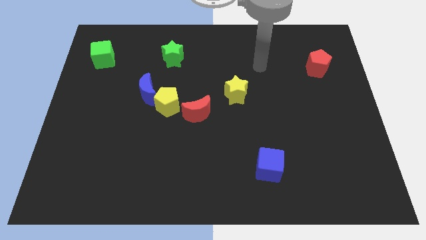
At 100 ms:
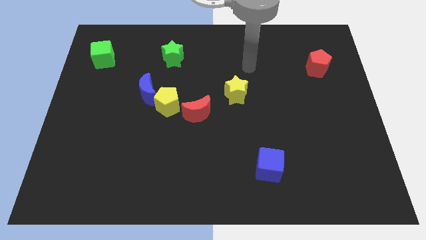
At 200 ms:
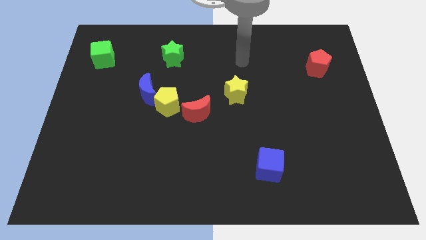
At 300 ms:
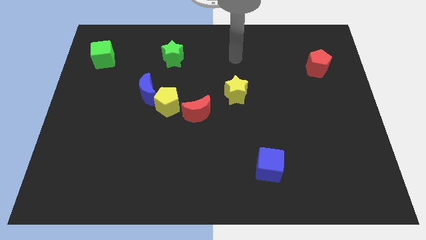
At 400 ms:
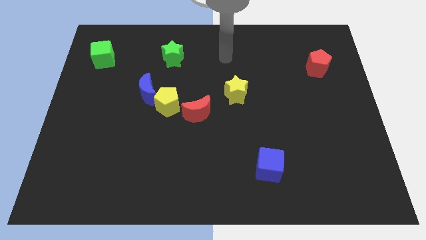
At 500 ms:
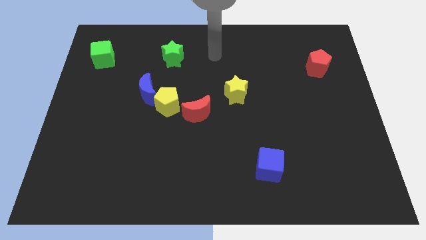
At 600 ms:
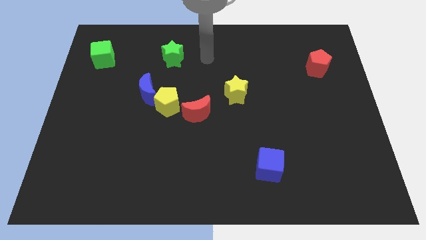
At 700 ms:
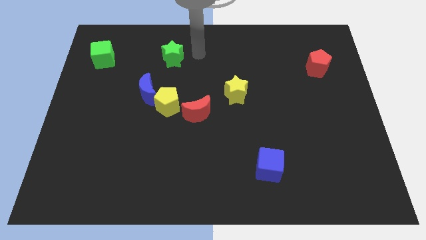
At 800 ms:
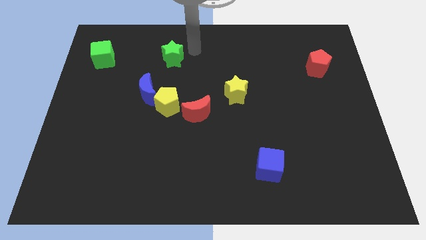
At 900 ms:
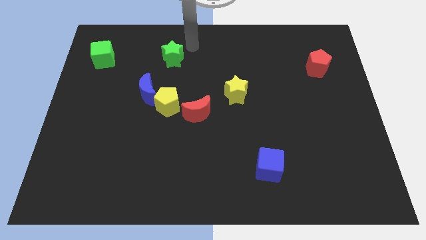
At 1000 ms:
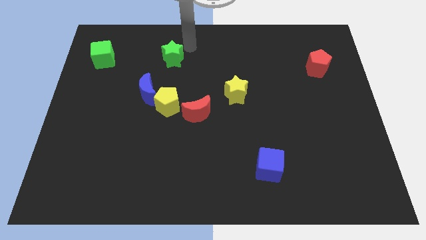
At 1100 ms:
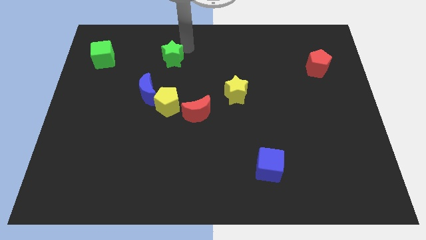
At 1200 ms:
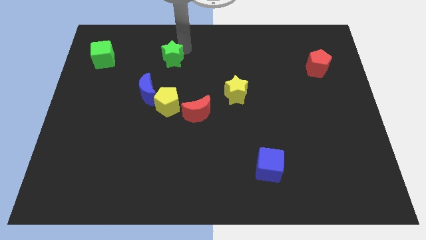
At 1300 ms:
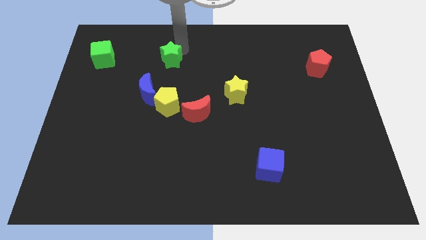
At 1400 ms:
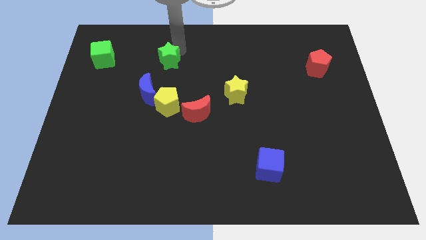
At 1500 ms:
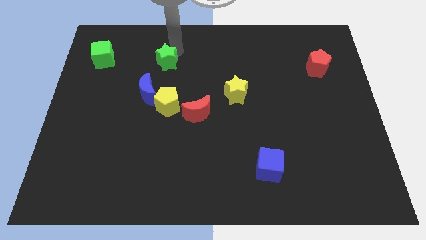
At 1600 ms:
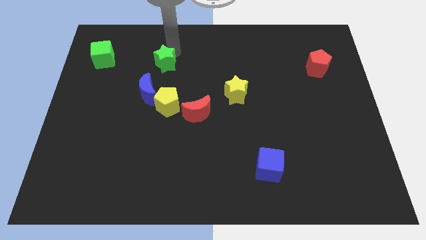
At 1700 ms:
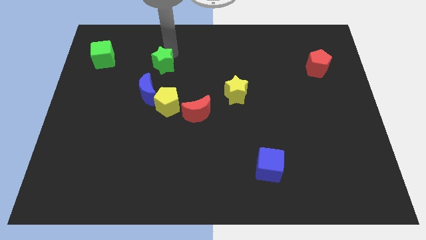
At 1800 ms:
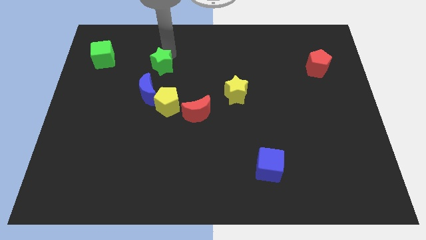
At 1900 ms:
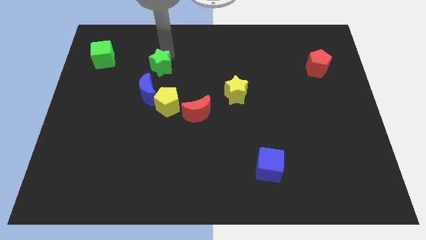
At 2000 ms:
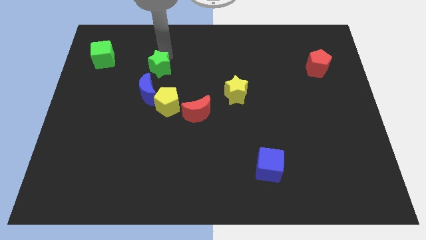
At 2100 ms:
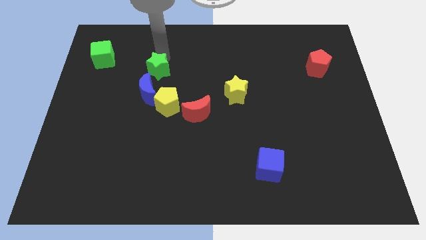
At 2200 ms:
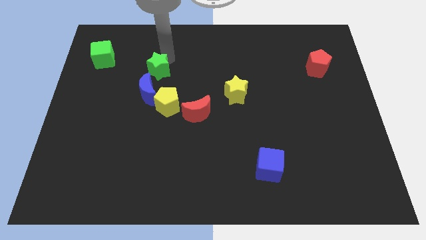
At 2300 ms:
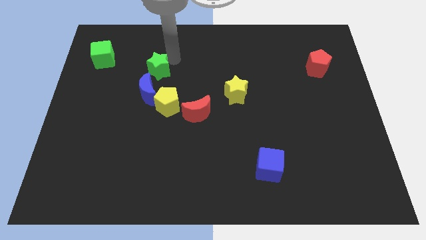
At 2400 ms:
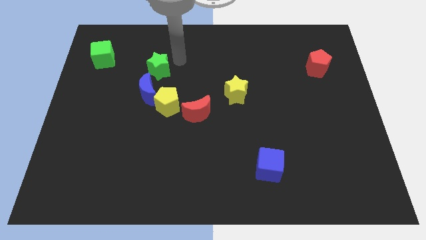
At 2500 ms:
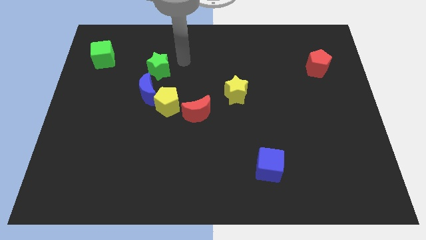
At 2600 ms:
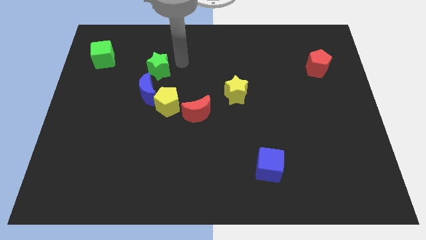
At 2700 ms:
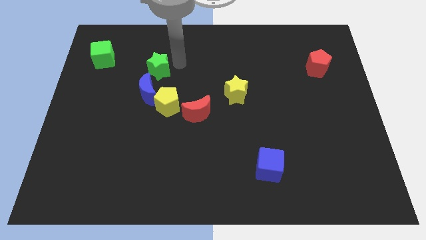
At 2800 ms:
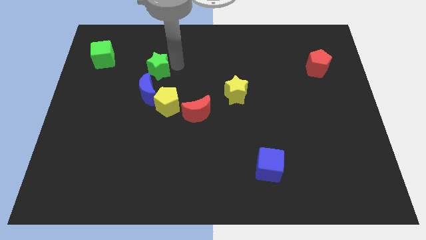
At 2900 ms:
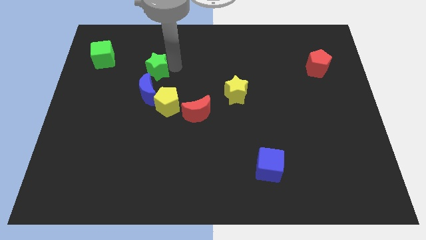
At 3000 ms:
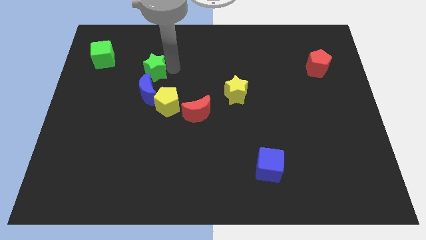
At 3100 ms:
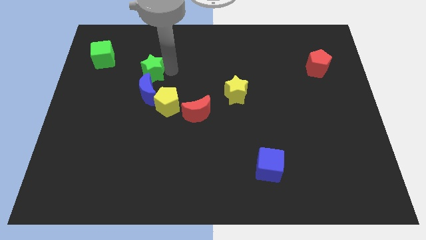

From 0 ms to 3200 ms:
push the green star slightly down and then left

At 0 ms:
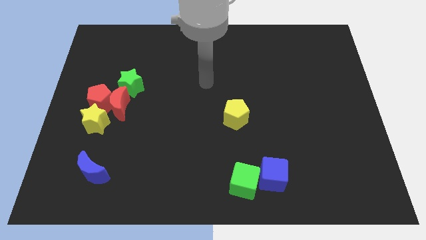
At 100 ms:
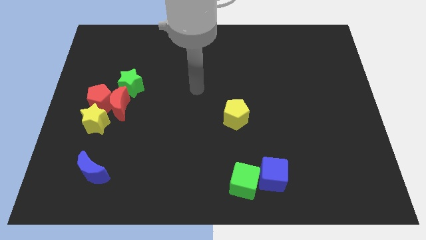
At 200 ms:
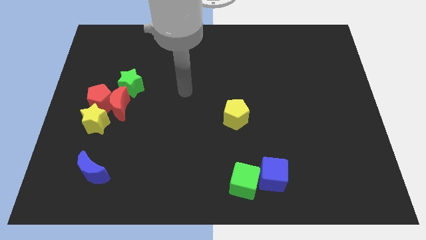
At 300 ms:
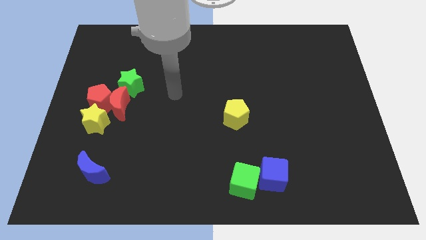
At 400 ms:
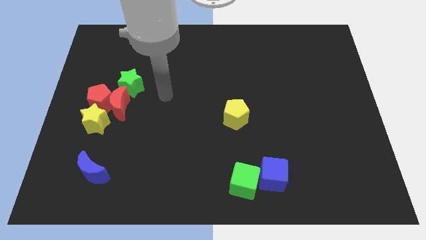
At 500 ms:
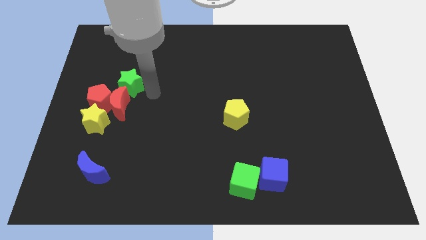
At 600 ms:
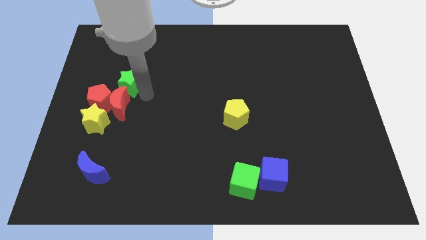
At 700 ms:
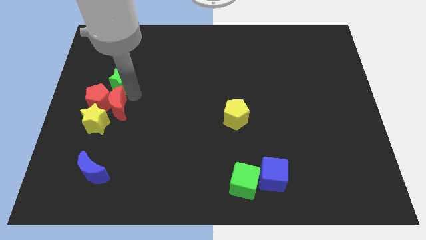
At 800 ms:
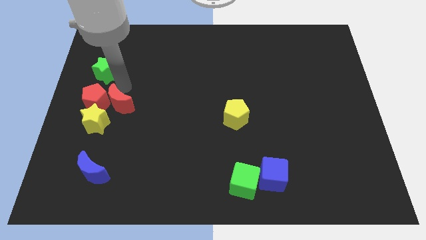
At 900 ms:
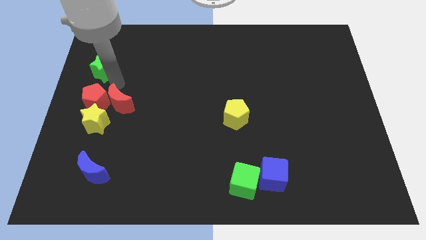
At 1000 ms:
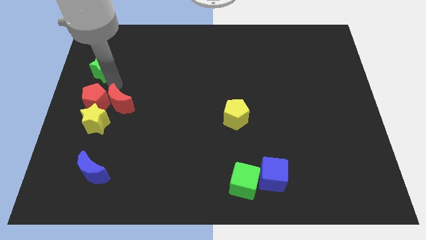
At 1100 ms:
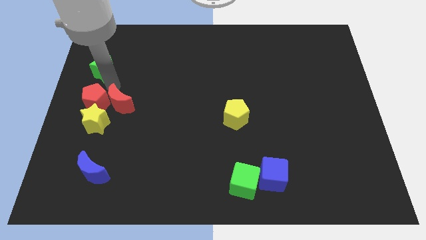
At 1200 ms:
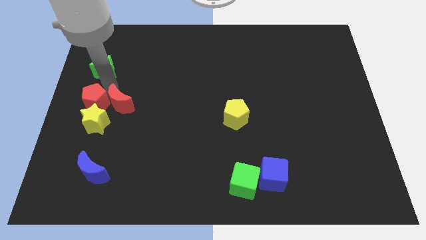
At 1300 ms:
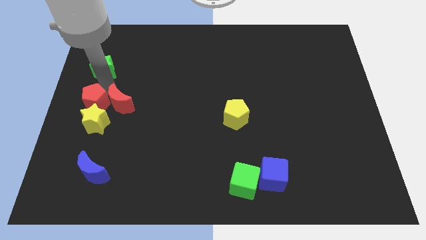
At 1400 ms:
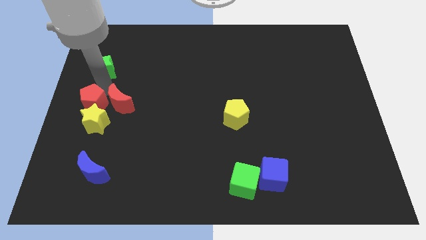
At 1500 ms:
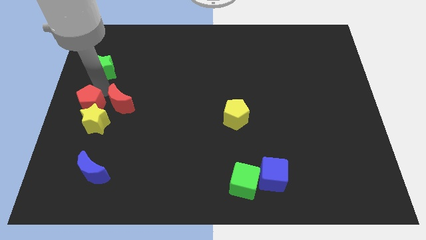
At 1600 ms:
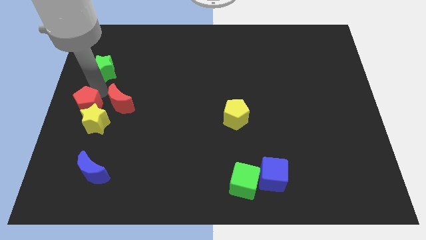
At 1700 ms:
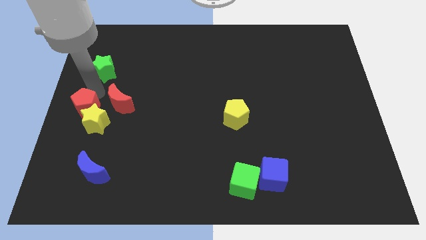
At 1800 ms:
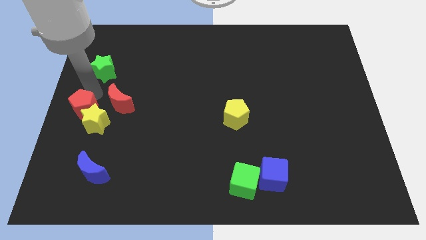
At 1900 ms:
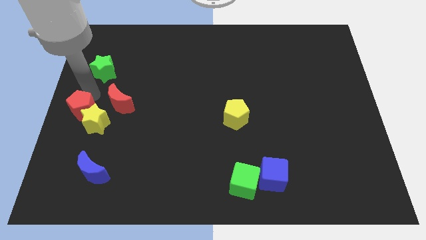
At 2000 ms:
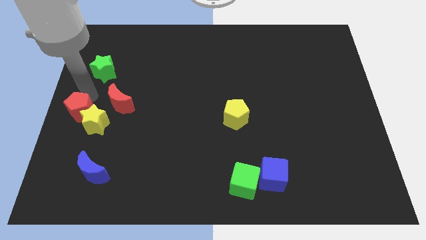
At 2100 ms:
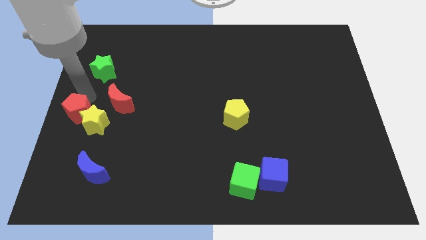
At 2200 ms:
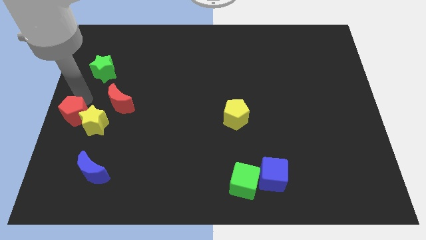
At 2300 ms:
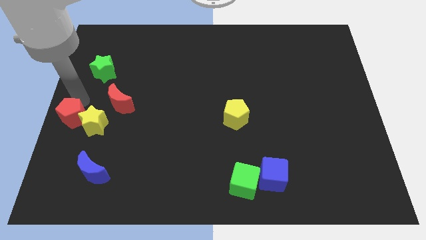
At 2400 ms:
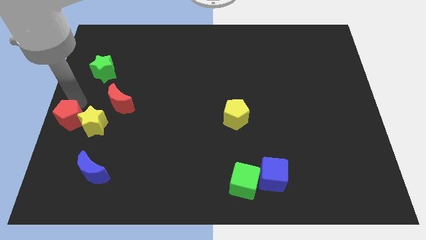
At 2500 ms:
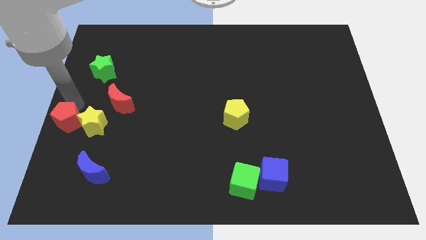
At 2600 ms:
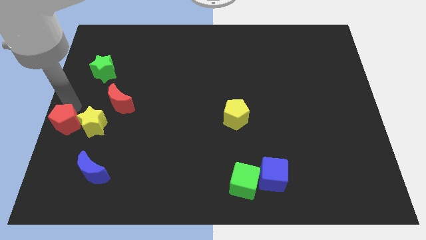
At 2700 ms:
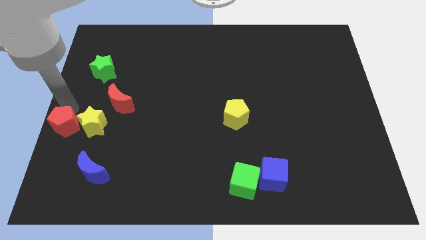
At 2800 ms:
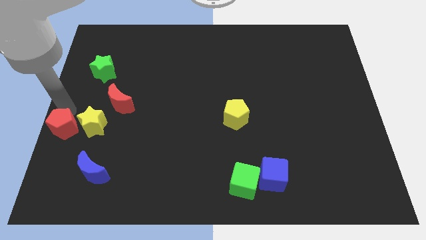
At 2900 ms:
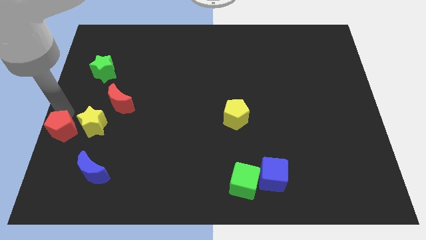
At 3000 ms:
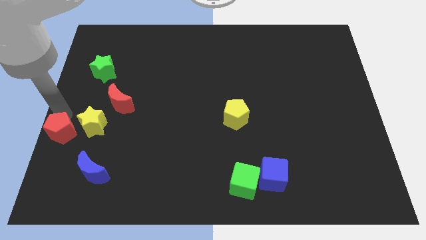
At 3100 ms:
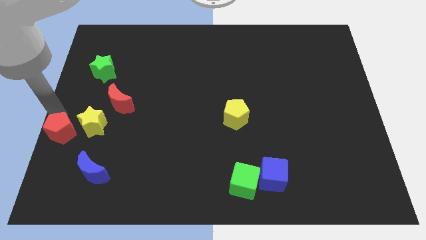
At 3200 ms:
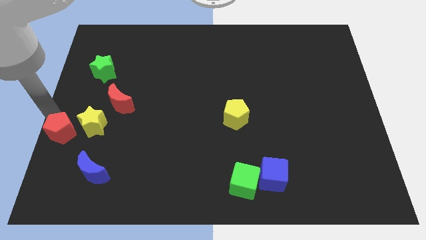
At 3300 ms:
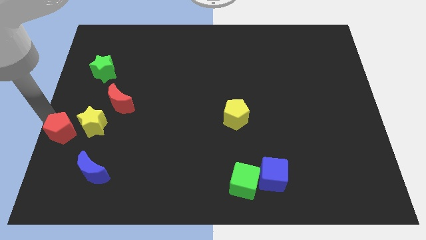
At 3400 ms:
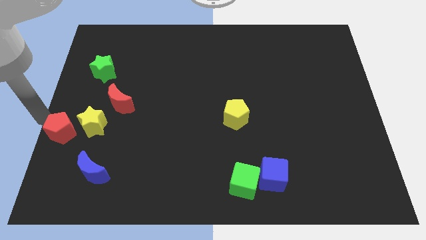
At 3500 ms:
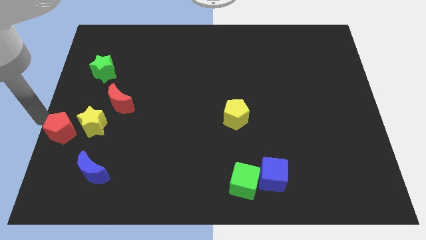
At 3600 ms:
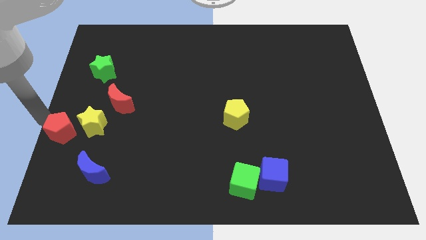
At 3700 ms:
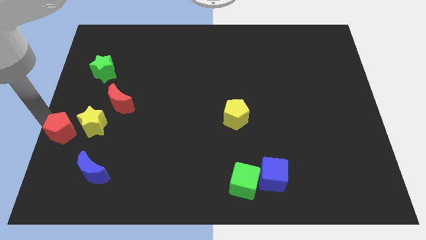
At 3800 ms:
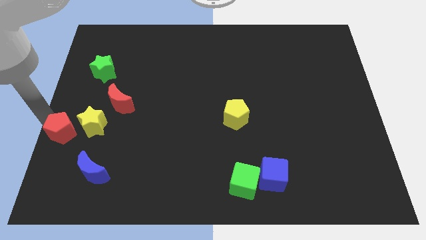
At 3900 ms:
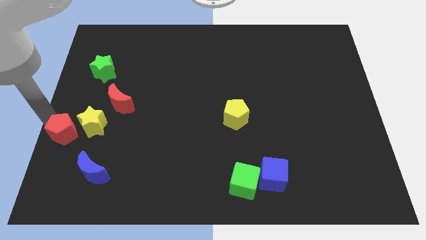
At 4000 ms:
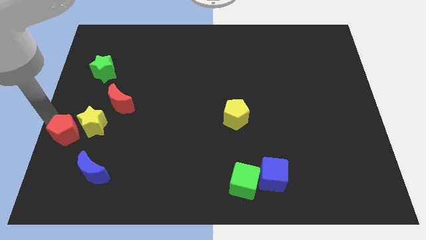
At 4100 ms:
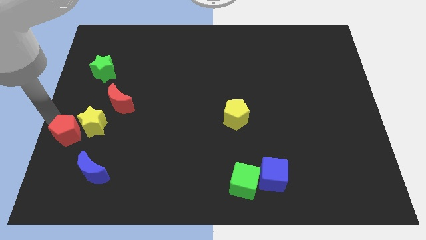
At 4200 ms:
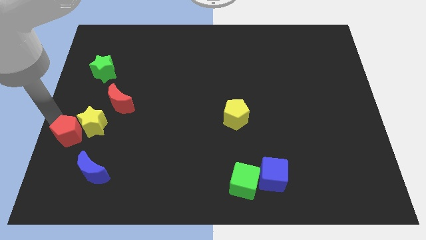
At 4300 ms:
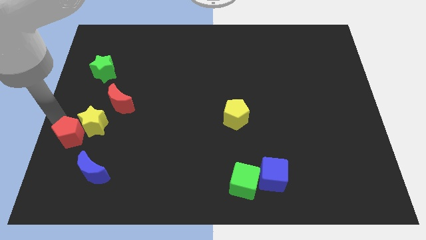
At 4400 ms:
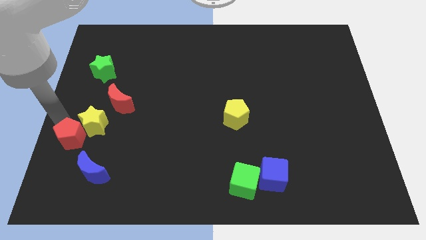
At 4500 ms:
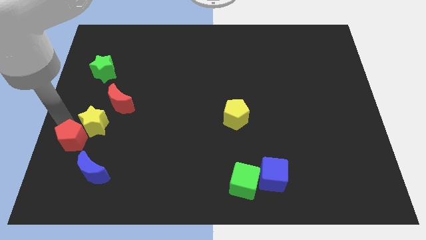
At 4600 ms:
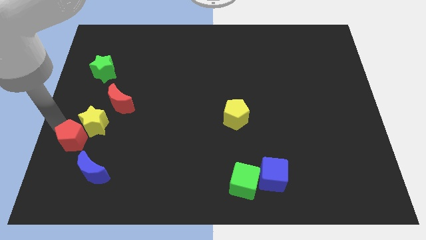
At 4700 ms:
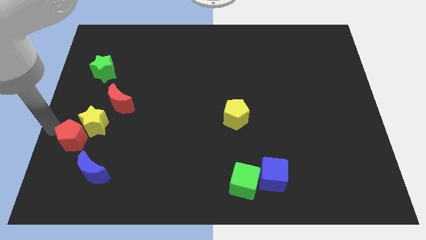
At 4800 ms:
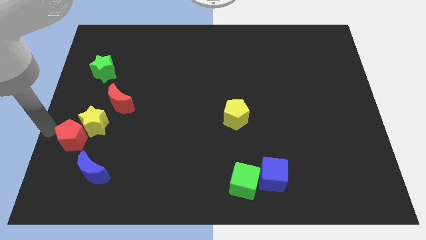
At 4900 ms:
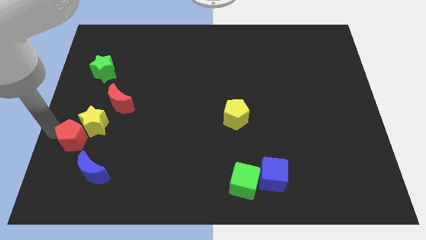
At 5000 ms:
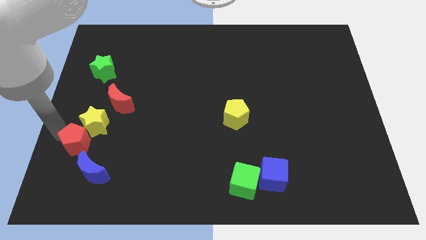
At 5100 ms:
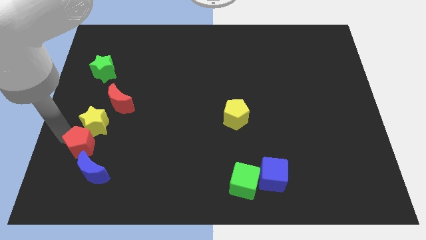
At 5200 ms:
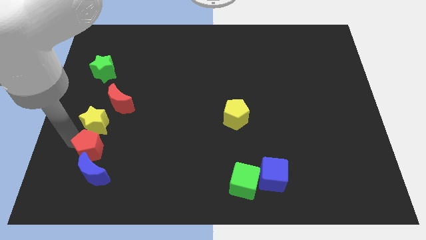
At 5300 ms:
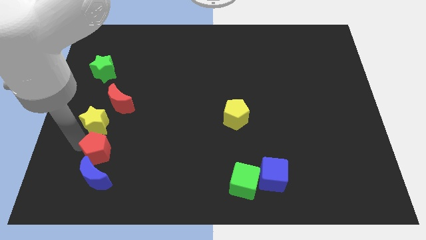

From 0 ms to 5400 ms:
move the red pentagon a bit down and to the right
